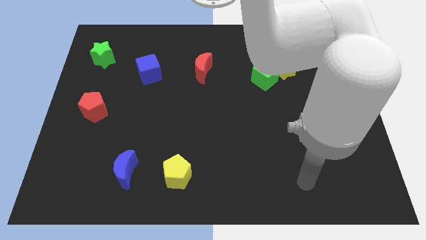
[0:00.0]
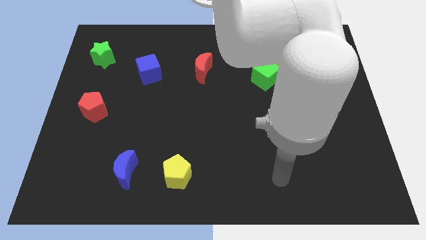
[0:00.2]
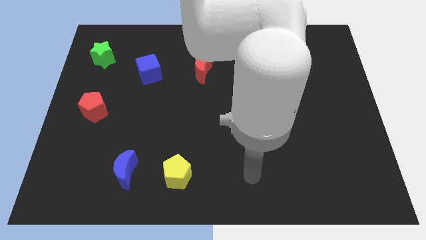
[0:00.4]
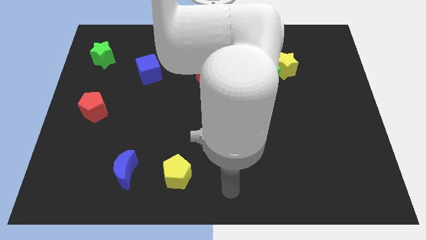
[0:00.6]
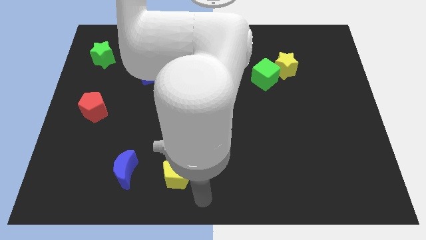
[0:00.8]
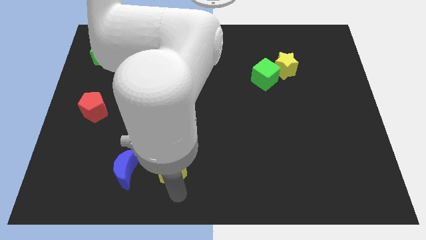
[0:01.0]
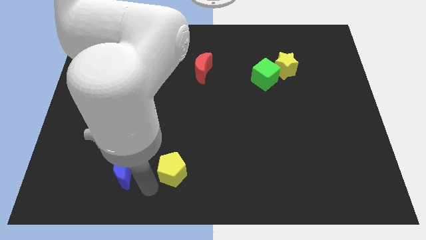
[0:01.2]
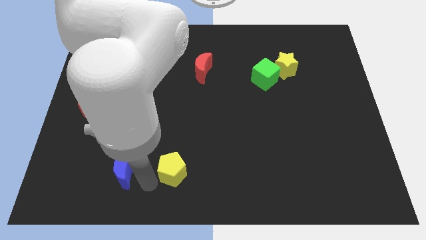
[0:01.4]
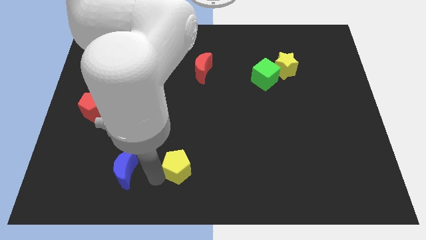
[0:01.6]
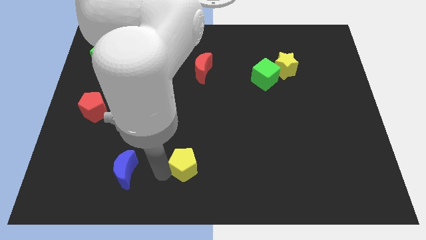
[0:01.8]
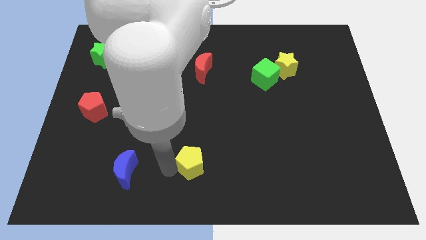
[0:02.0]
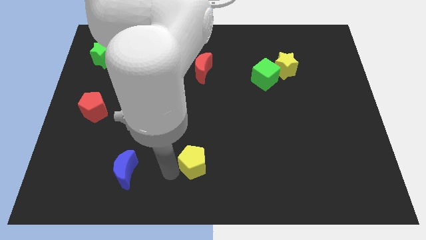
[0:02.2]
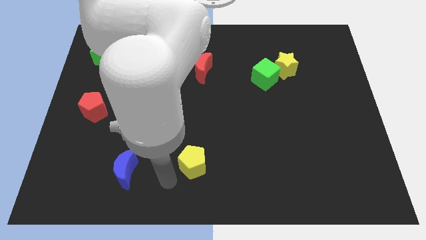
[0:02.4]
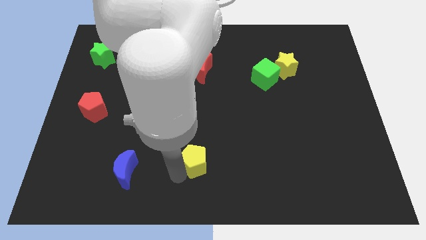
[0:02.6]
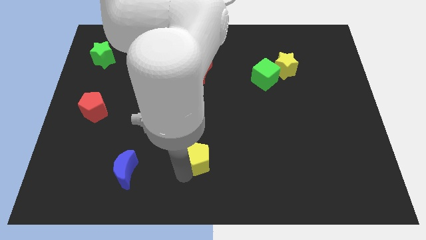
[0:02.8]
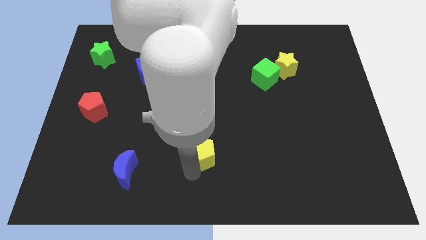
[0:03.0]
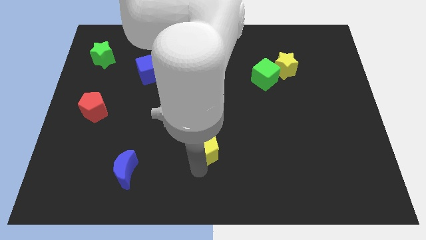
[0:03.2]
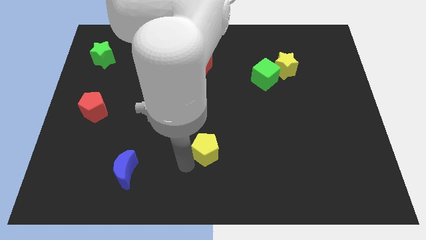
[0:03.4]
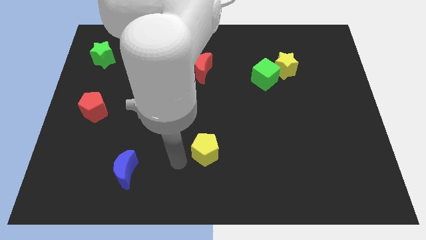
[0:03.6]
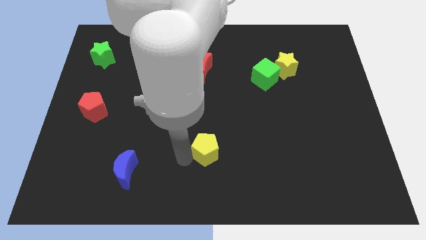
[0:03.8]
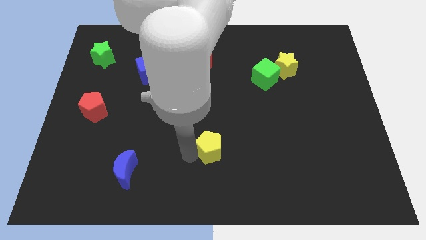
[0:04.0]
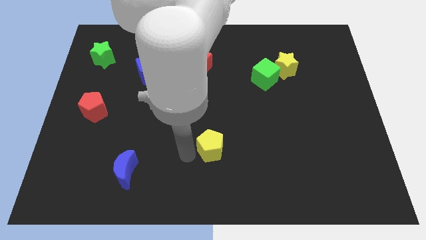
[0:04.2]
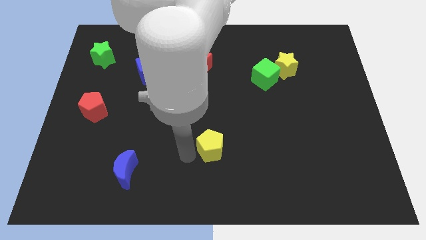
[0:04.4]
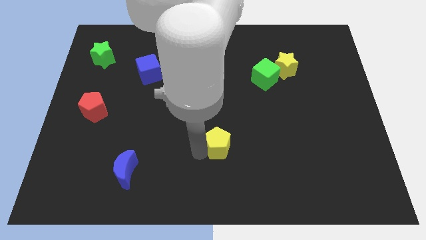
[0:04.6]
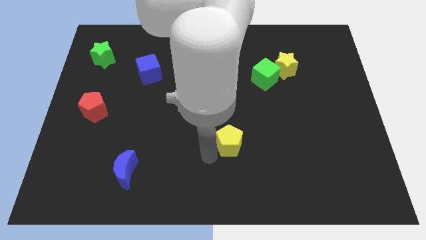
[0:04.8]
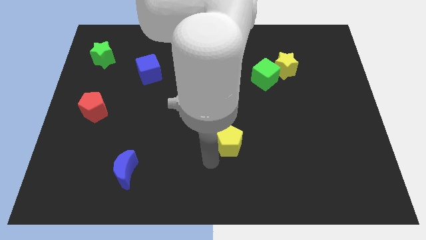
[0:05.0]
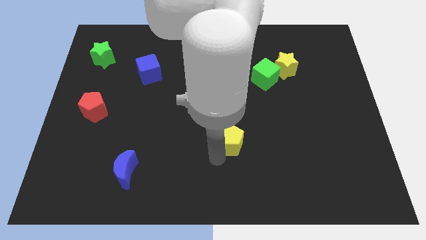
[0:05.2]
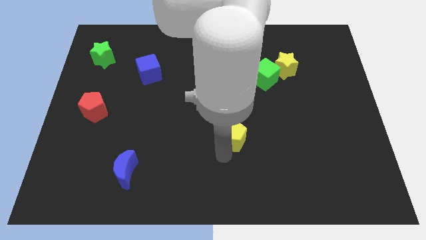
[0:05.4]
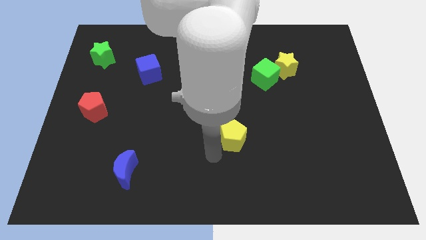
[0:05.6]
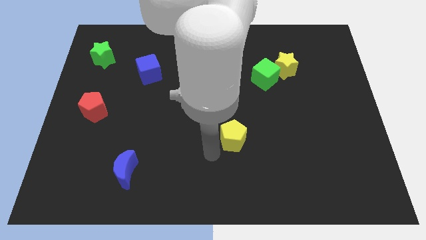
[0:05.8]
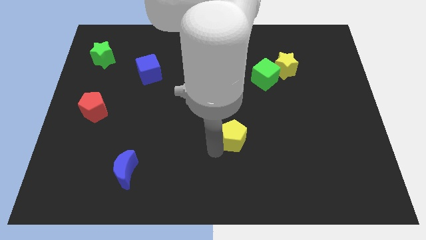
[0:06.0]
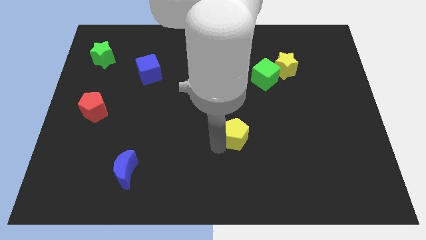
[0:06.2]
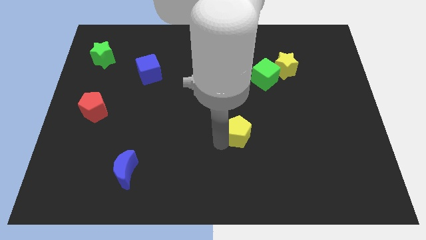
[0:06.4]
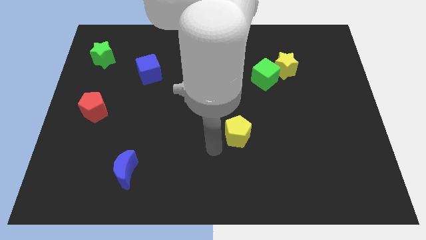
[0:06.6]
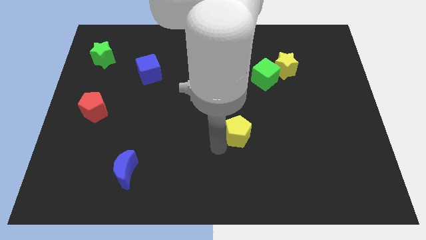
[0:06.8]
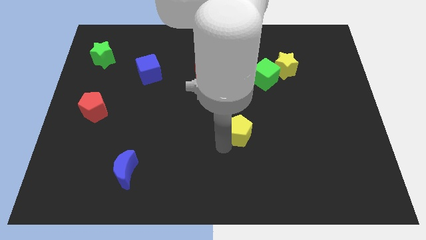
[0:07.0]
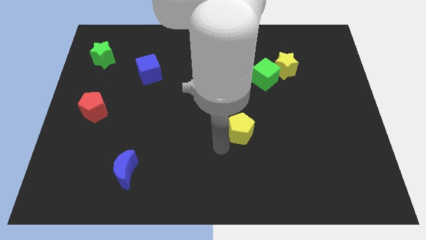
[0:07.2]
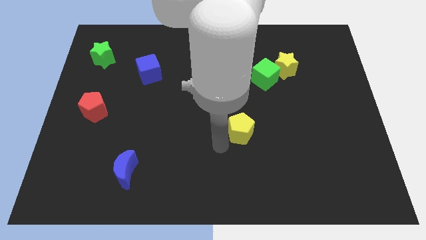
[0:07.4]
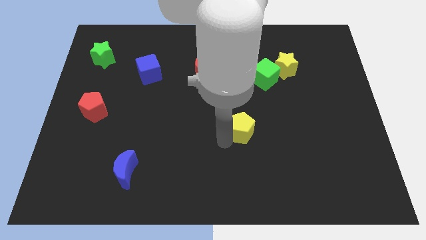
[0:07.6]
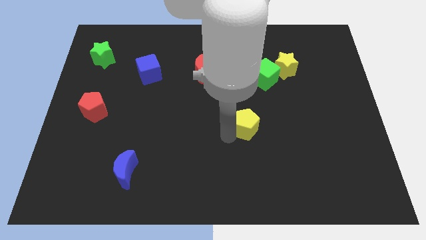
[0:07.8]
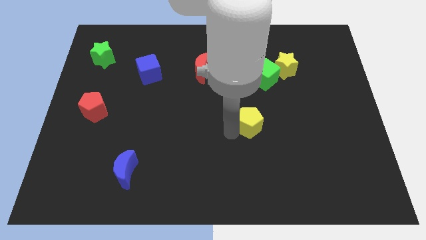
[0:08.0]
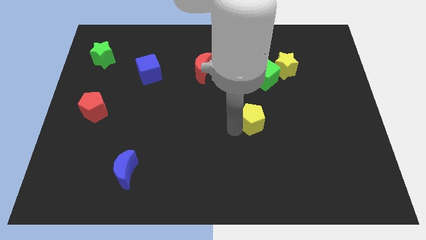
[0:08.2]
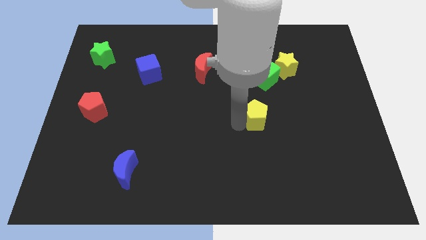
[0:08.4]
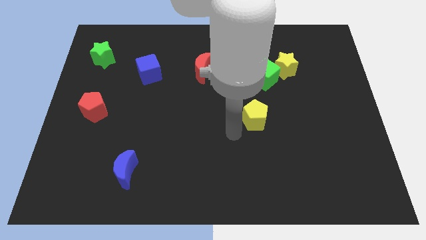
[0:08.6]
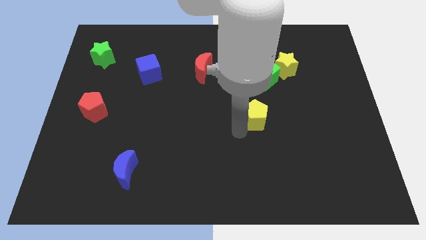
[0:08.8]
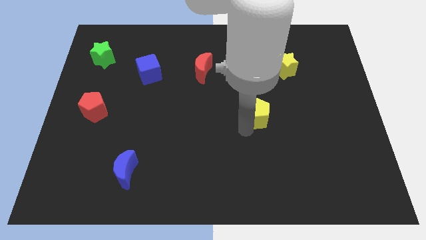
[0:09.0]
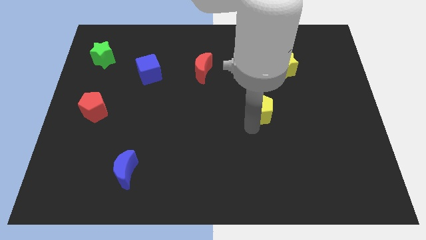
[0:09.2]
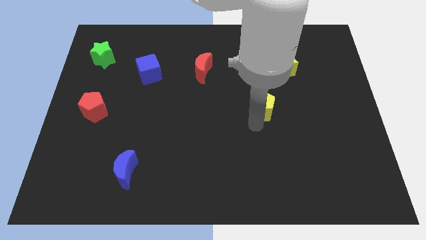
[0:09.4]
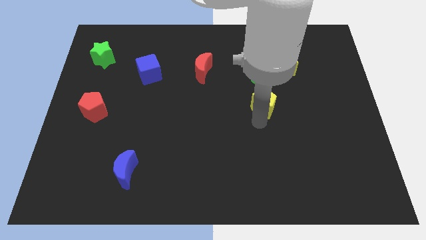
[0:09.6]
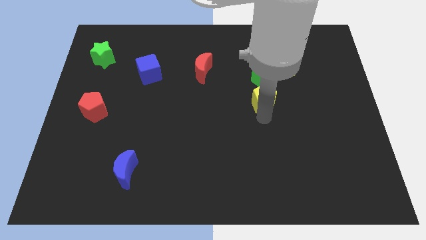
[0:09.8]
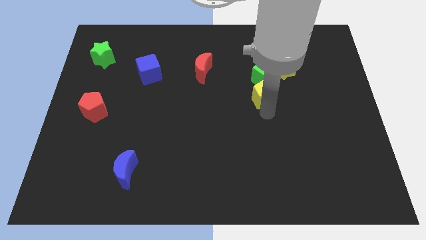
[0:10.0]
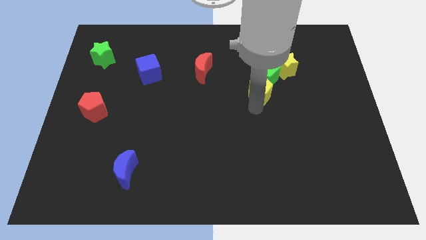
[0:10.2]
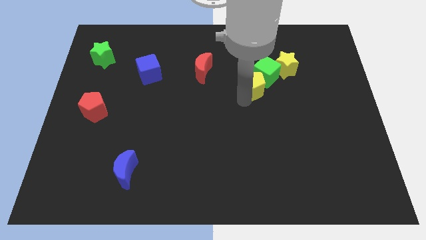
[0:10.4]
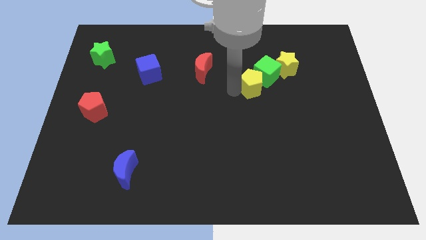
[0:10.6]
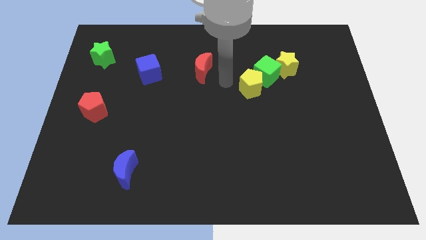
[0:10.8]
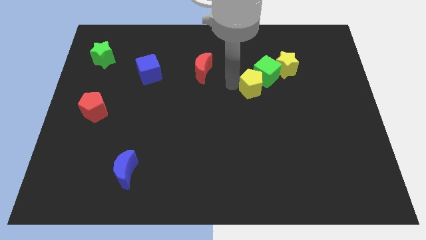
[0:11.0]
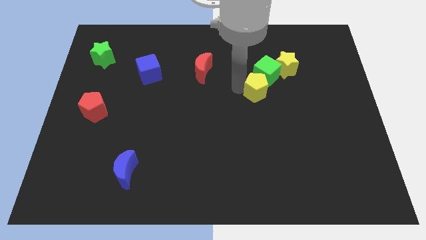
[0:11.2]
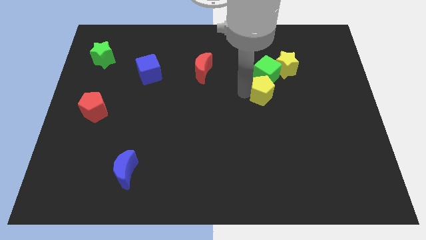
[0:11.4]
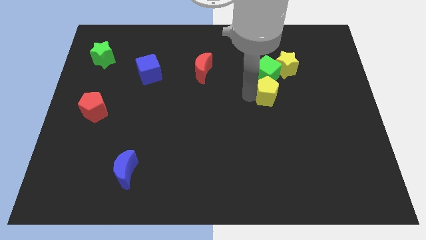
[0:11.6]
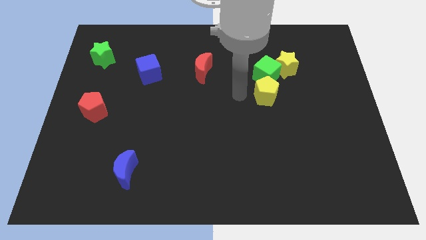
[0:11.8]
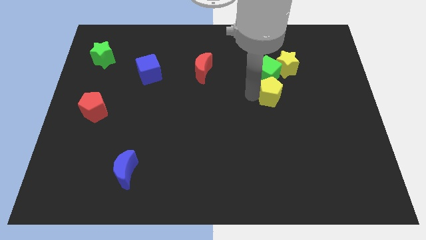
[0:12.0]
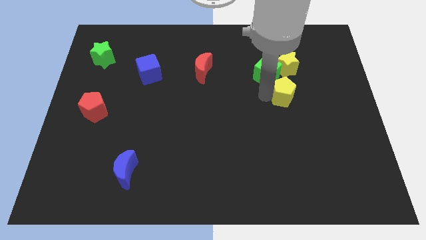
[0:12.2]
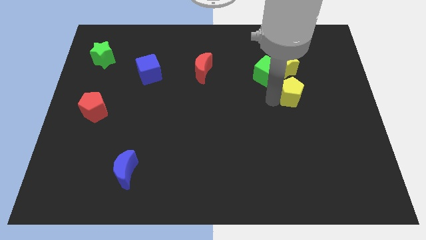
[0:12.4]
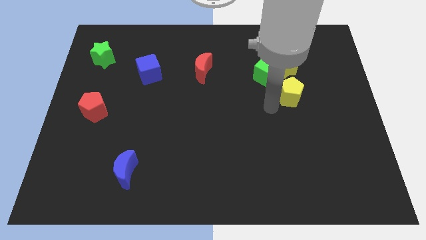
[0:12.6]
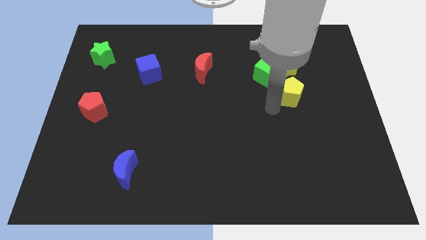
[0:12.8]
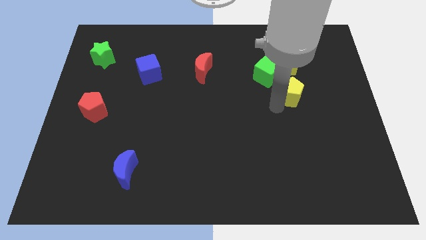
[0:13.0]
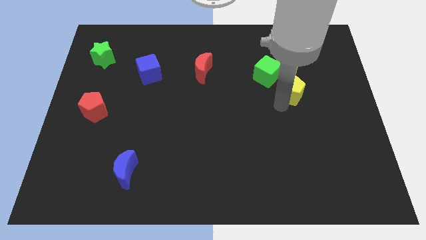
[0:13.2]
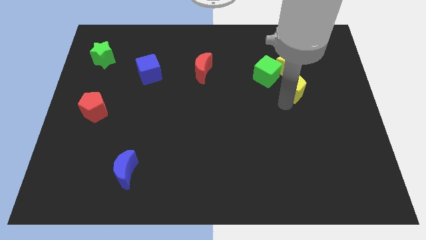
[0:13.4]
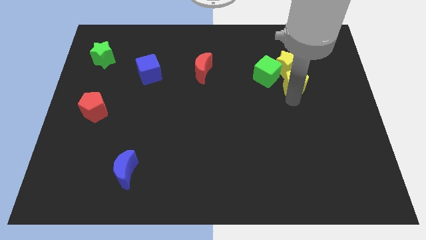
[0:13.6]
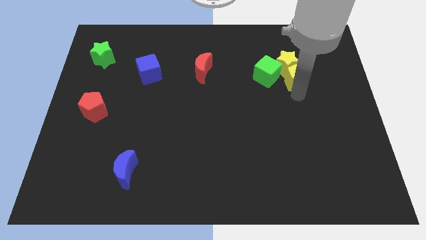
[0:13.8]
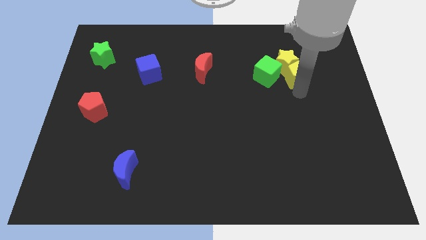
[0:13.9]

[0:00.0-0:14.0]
move the yellow pentagon to the right side of the yellow star

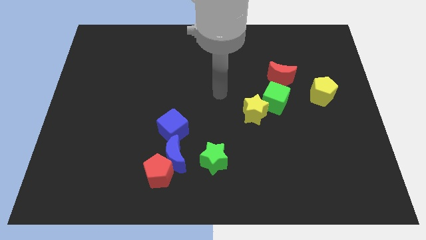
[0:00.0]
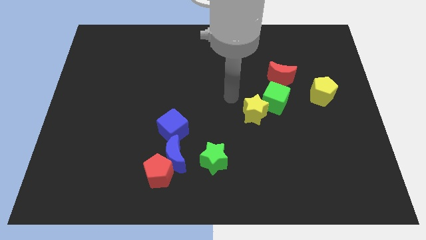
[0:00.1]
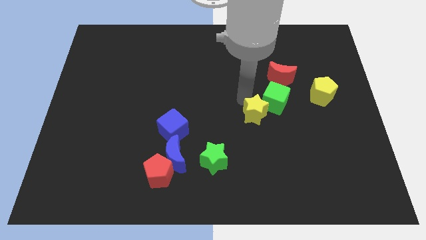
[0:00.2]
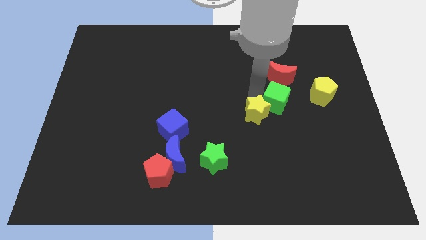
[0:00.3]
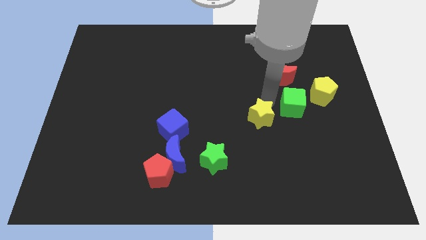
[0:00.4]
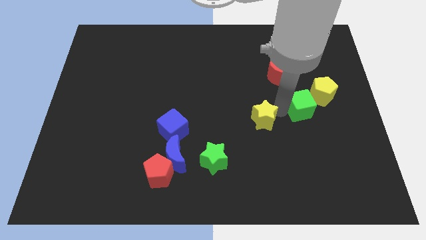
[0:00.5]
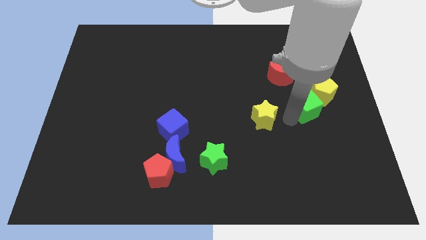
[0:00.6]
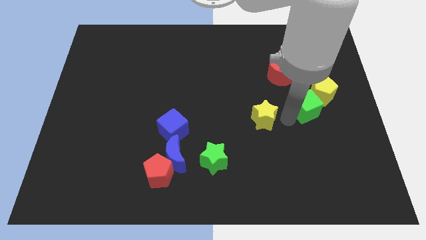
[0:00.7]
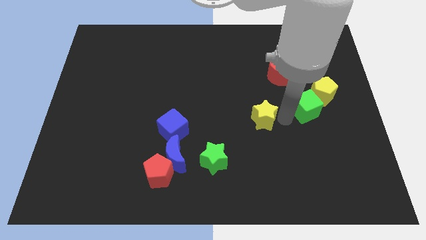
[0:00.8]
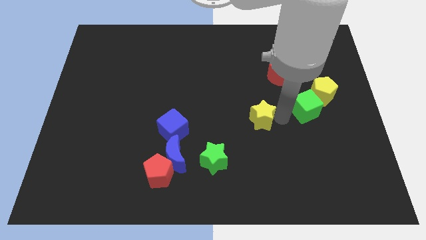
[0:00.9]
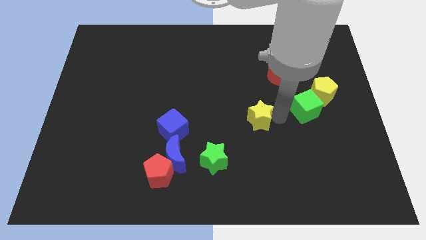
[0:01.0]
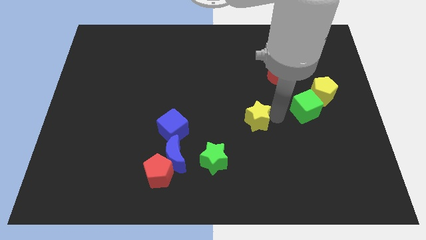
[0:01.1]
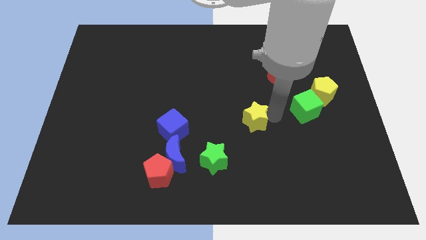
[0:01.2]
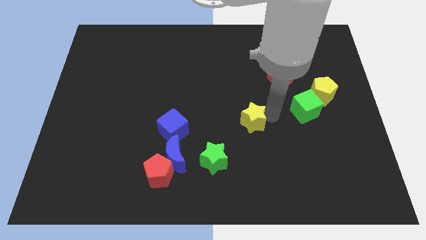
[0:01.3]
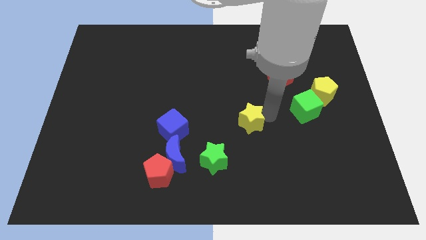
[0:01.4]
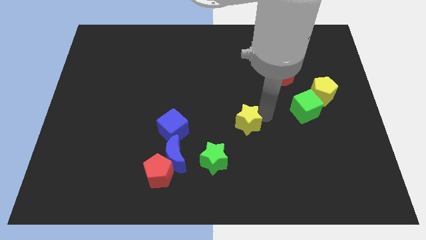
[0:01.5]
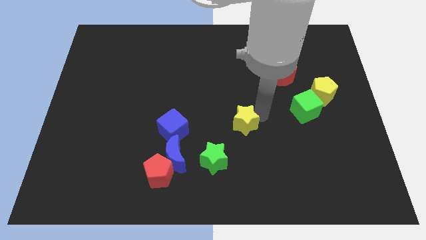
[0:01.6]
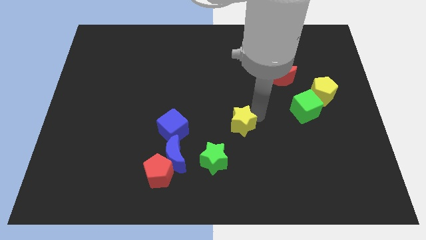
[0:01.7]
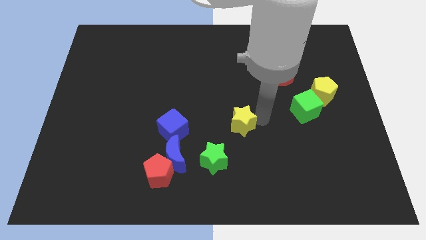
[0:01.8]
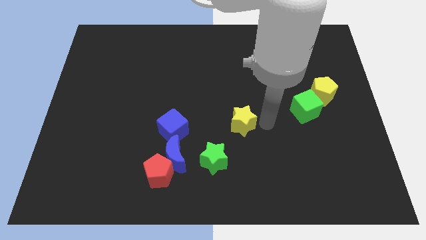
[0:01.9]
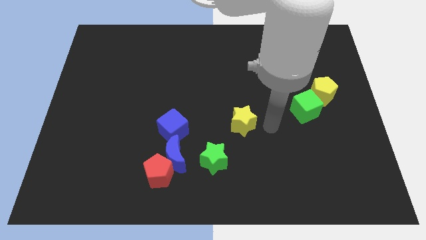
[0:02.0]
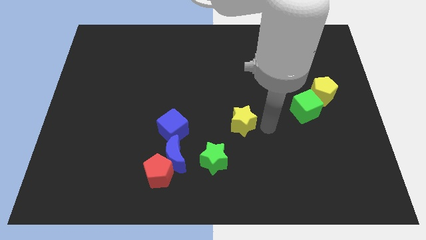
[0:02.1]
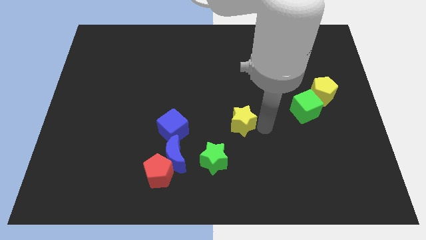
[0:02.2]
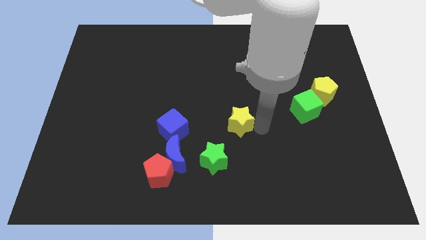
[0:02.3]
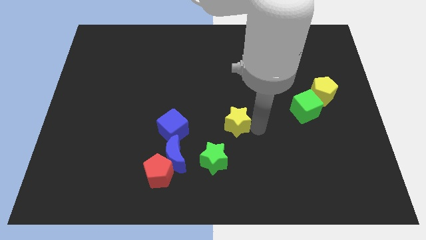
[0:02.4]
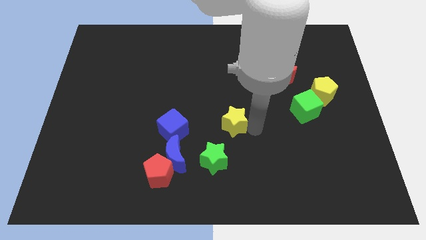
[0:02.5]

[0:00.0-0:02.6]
move the yellow star to the top side of the green star
